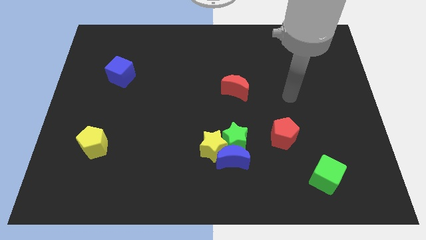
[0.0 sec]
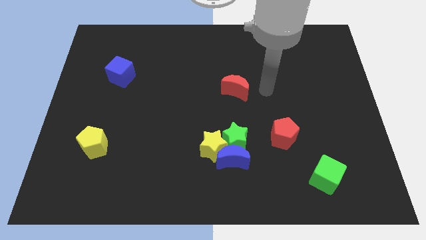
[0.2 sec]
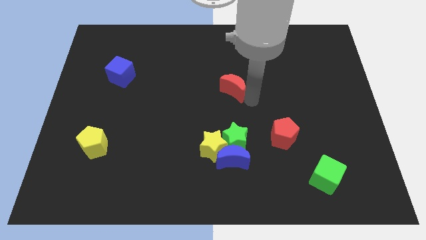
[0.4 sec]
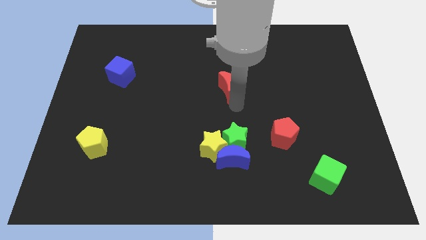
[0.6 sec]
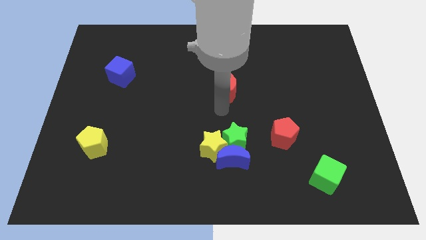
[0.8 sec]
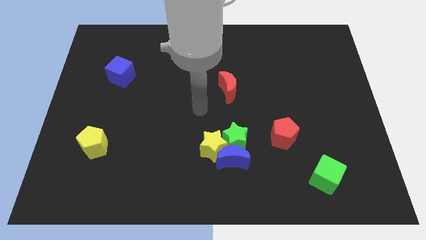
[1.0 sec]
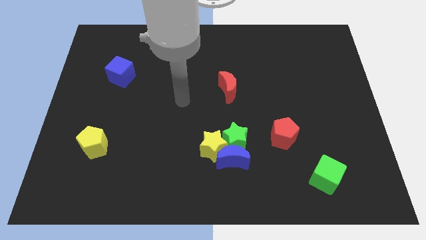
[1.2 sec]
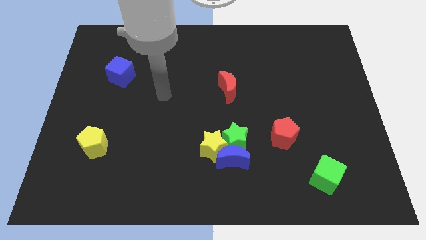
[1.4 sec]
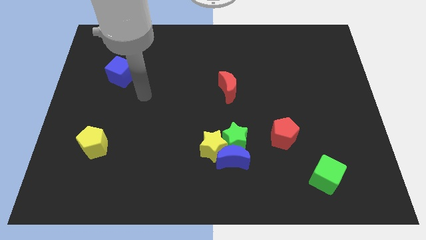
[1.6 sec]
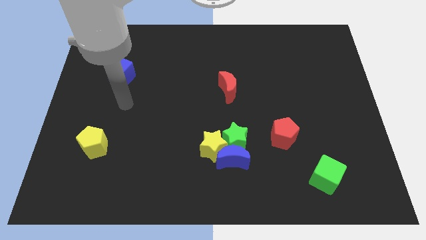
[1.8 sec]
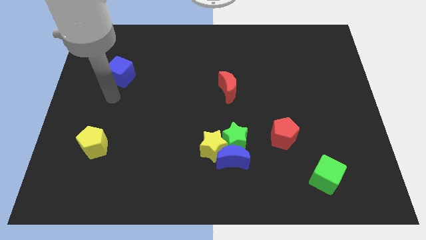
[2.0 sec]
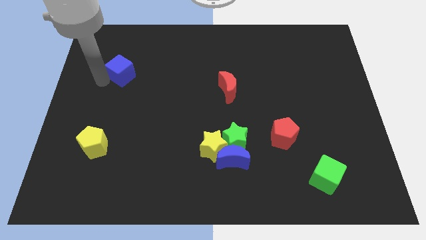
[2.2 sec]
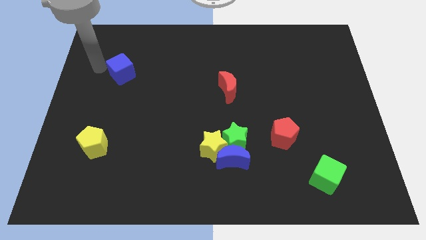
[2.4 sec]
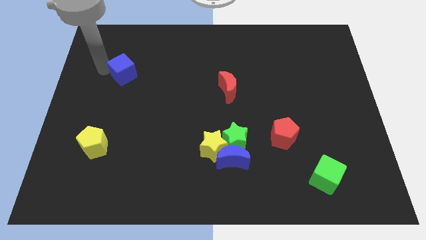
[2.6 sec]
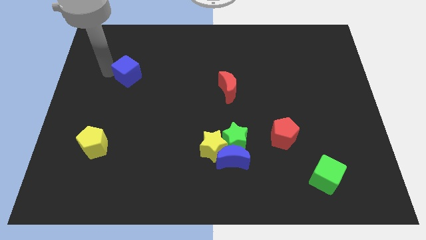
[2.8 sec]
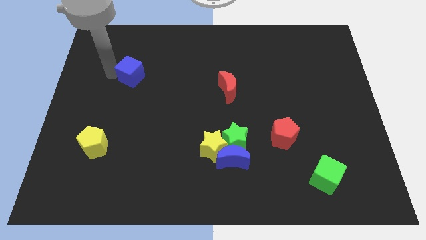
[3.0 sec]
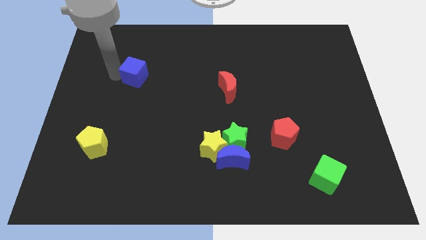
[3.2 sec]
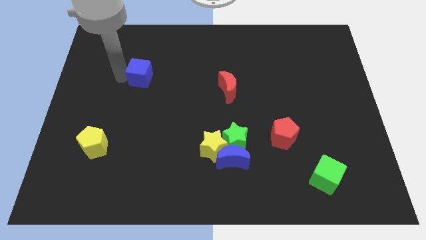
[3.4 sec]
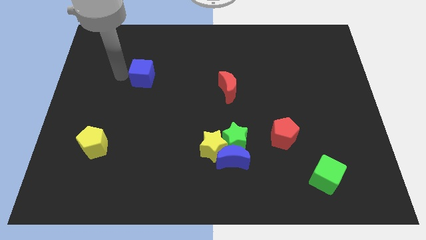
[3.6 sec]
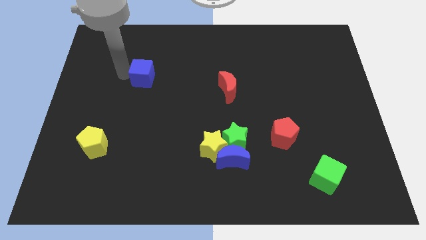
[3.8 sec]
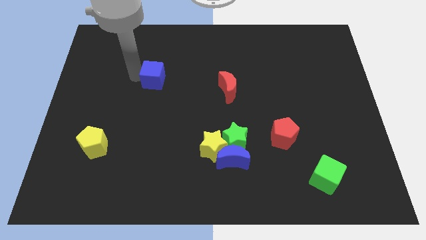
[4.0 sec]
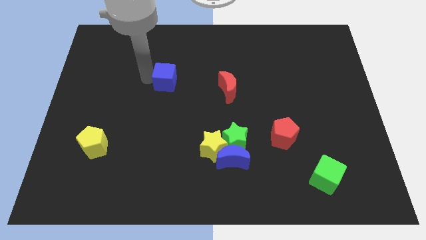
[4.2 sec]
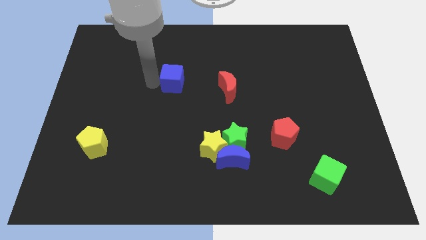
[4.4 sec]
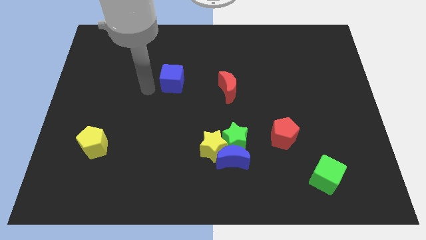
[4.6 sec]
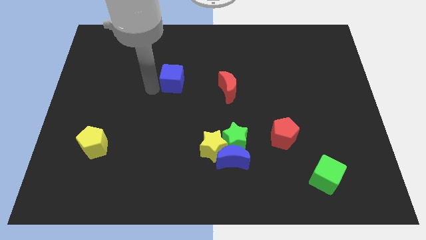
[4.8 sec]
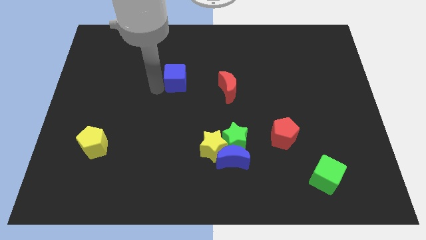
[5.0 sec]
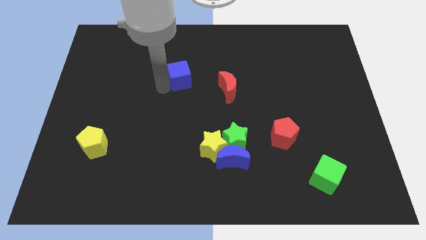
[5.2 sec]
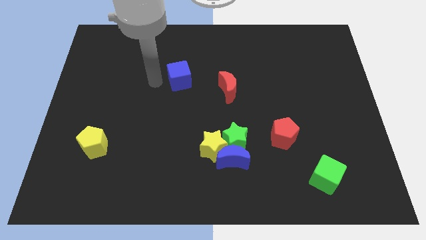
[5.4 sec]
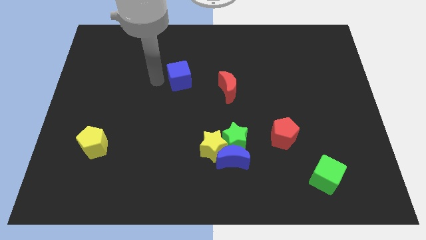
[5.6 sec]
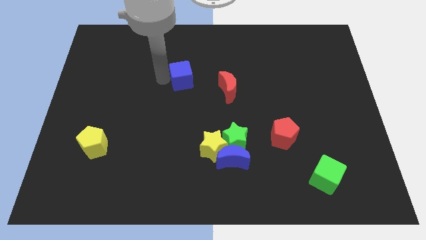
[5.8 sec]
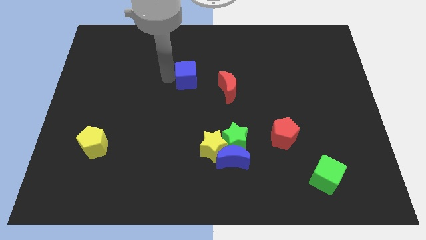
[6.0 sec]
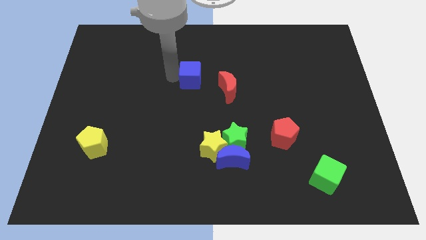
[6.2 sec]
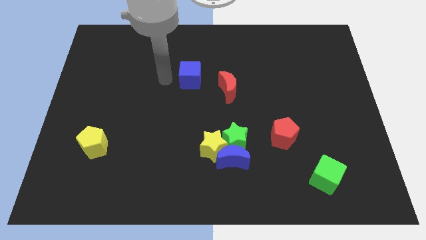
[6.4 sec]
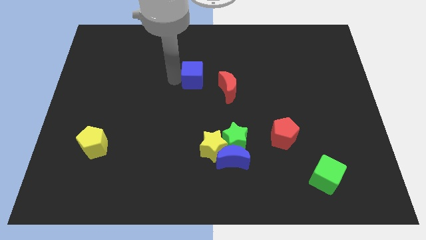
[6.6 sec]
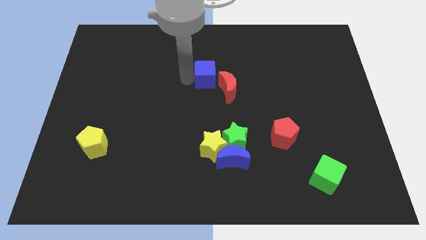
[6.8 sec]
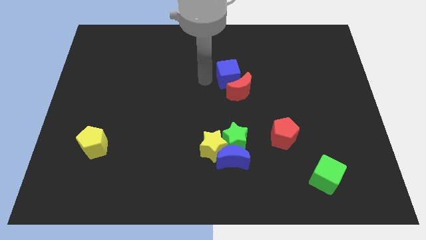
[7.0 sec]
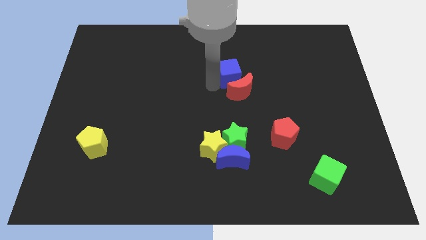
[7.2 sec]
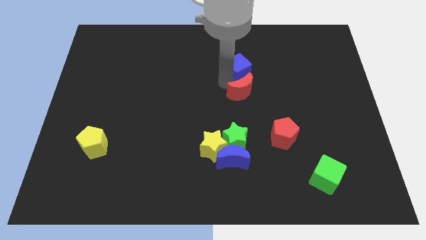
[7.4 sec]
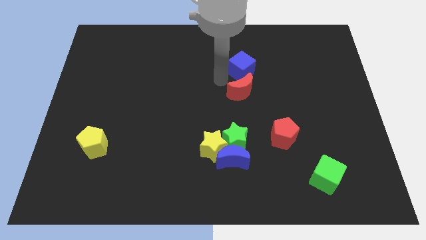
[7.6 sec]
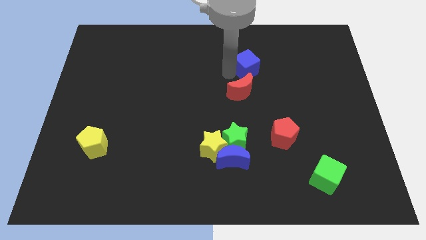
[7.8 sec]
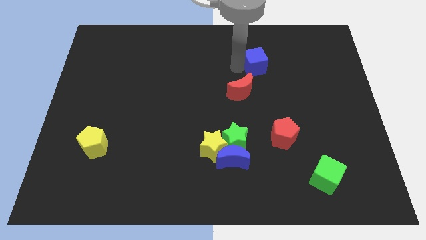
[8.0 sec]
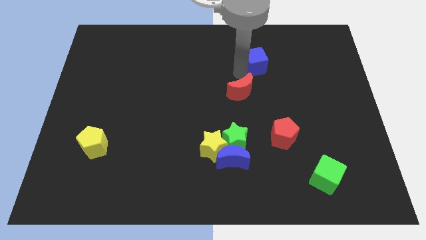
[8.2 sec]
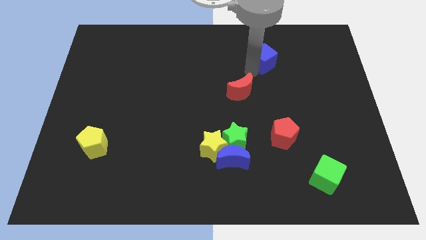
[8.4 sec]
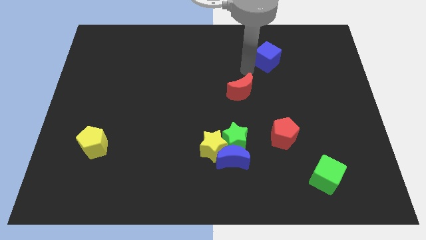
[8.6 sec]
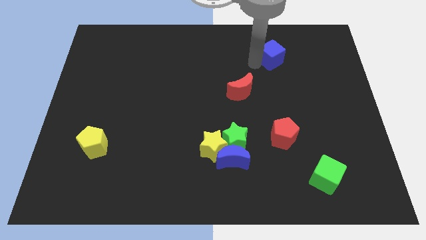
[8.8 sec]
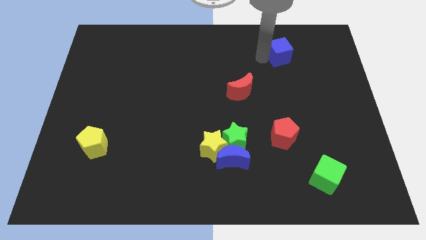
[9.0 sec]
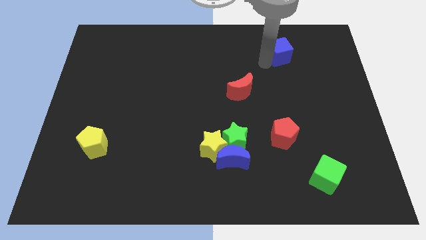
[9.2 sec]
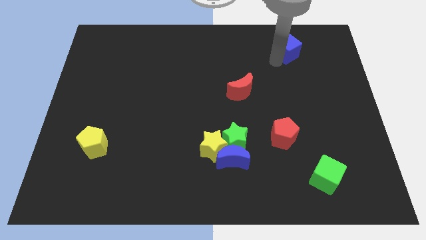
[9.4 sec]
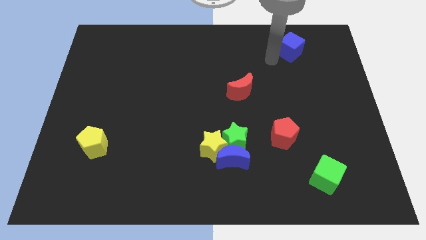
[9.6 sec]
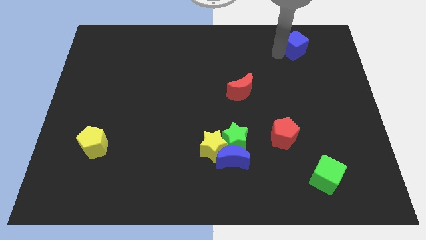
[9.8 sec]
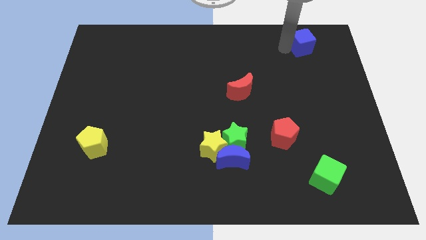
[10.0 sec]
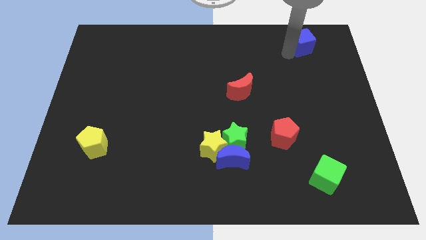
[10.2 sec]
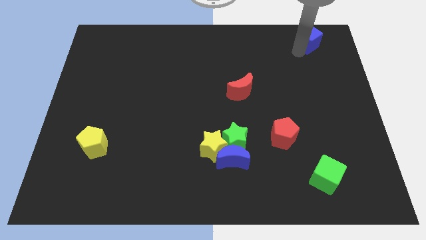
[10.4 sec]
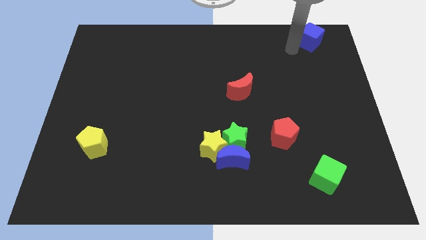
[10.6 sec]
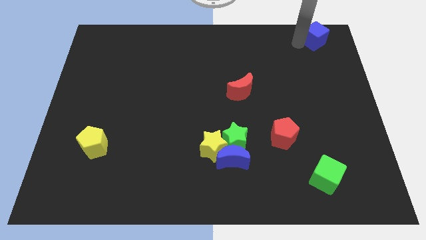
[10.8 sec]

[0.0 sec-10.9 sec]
move the blue cube to the top right
